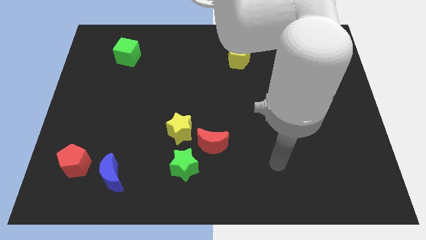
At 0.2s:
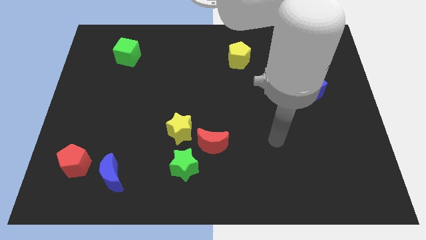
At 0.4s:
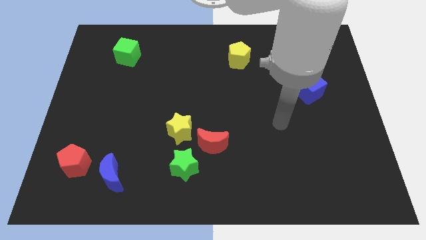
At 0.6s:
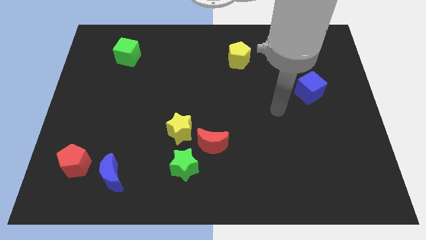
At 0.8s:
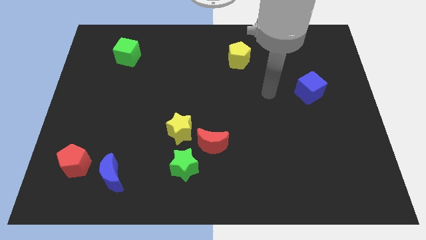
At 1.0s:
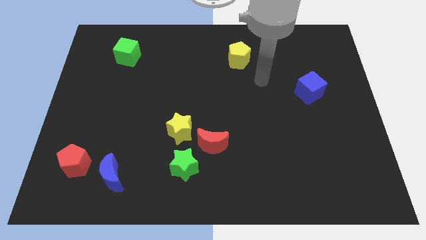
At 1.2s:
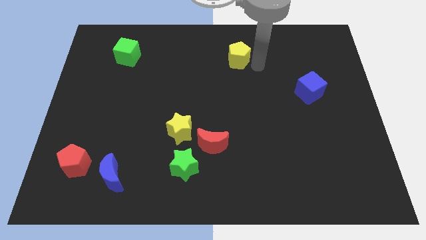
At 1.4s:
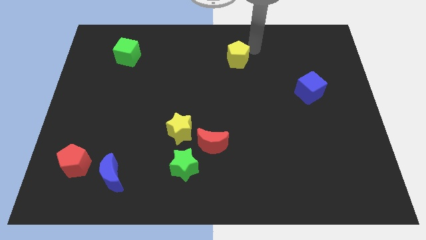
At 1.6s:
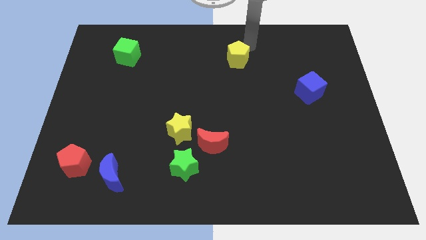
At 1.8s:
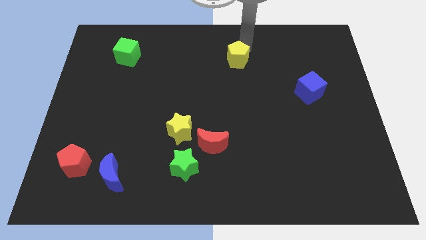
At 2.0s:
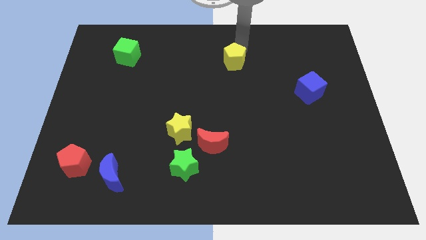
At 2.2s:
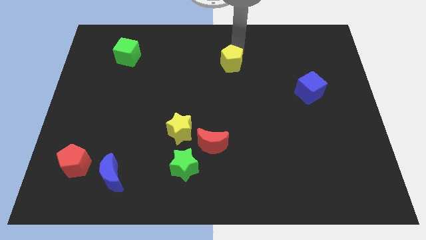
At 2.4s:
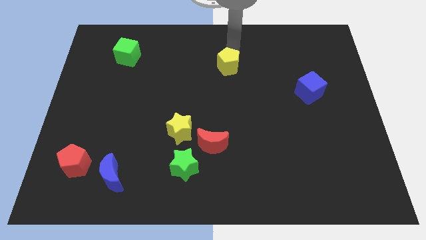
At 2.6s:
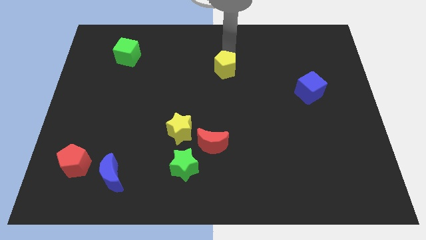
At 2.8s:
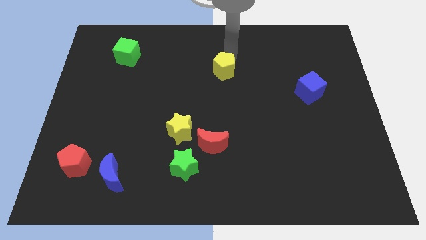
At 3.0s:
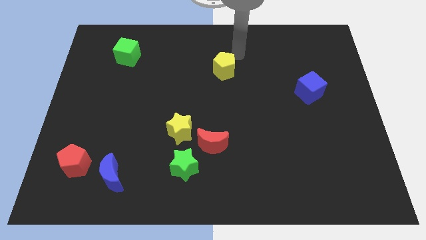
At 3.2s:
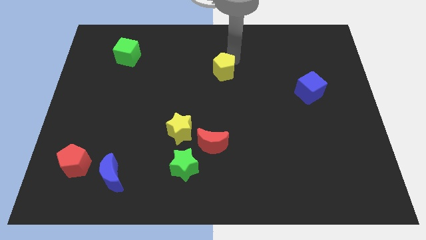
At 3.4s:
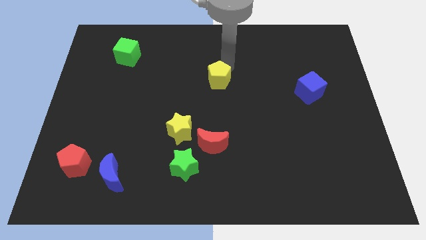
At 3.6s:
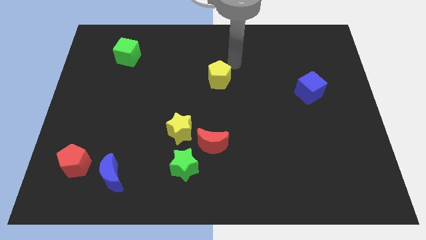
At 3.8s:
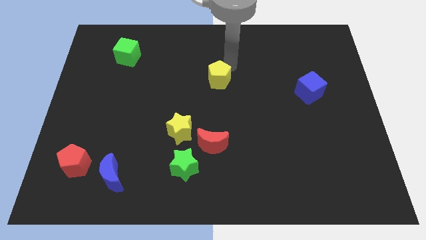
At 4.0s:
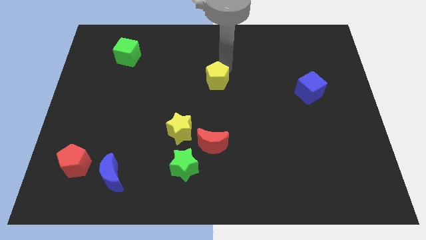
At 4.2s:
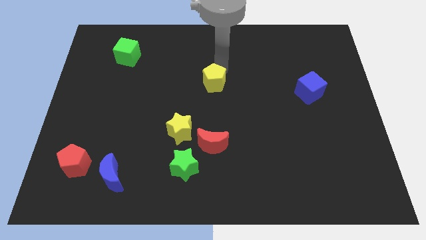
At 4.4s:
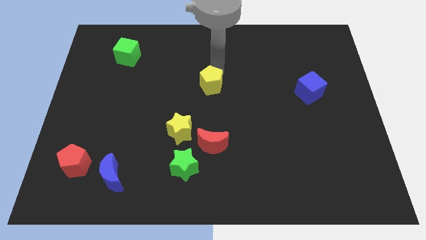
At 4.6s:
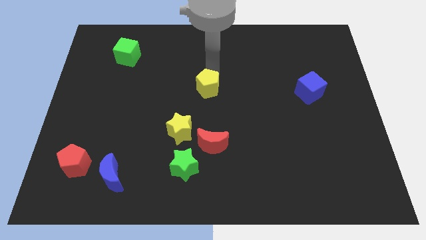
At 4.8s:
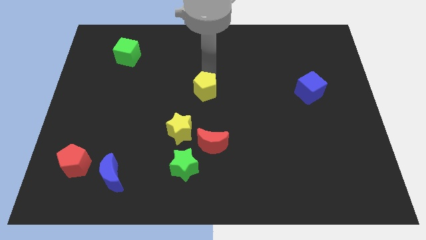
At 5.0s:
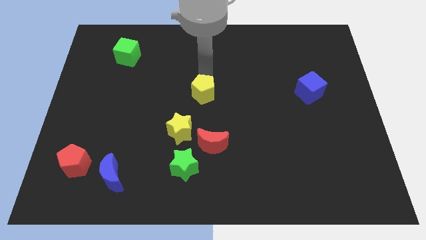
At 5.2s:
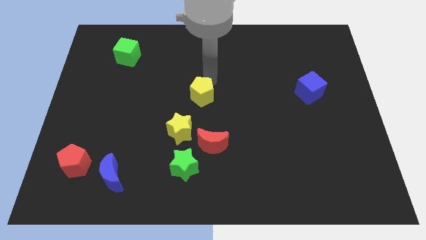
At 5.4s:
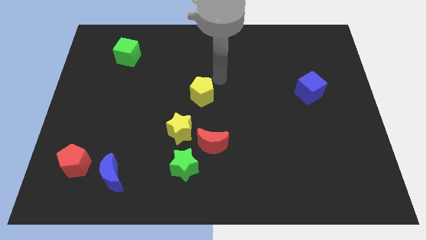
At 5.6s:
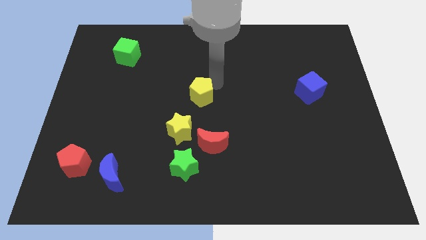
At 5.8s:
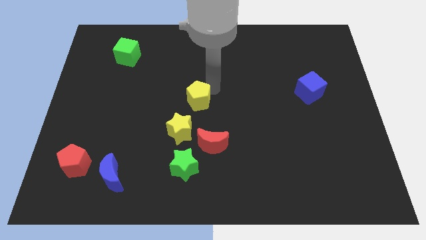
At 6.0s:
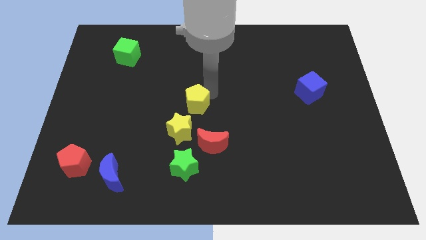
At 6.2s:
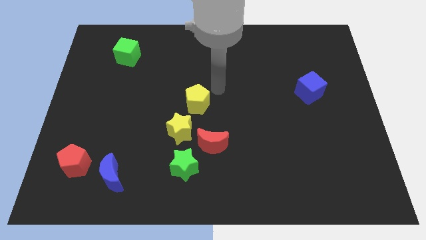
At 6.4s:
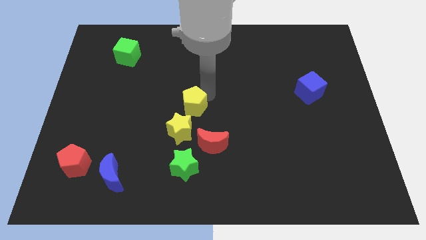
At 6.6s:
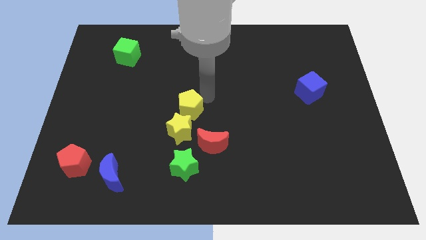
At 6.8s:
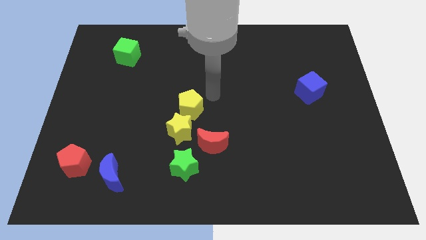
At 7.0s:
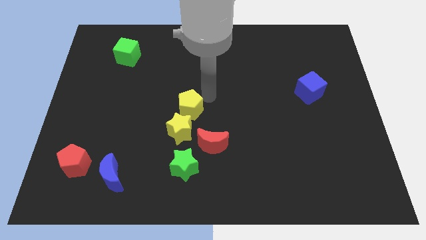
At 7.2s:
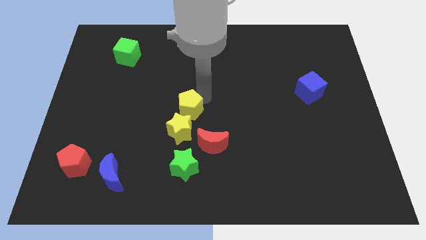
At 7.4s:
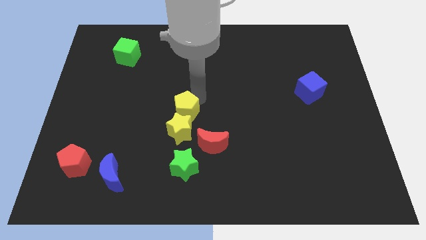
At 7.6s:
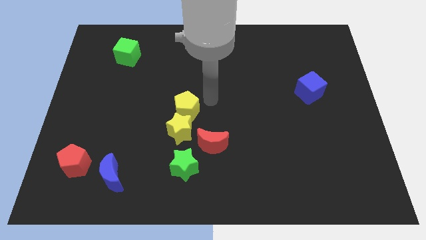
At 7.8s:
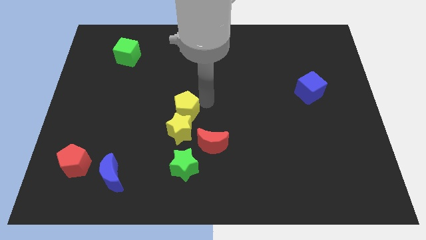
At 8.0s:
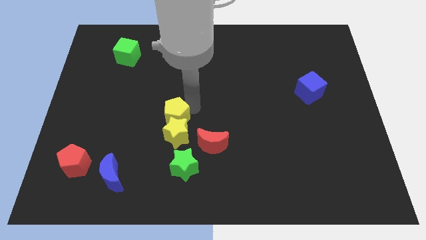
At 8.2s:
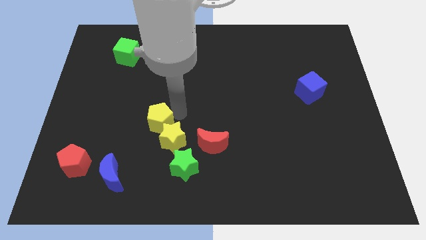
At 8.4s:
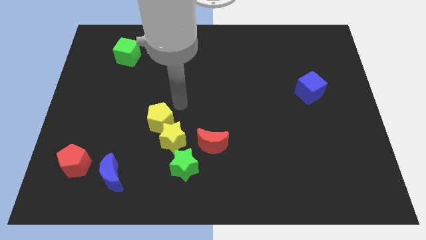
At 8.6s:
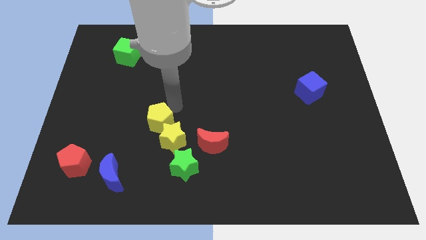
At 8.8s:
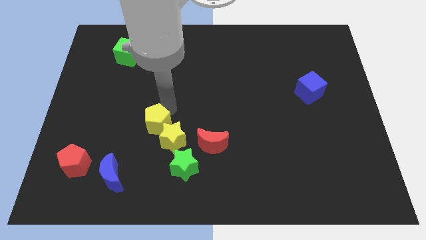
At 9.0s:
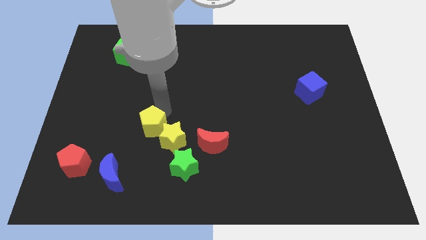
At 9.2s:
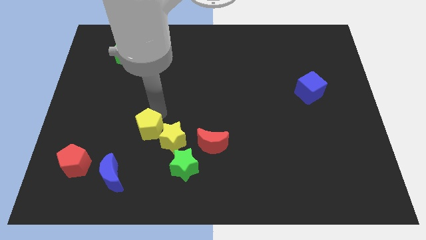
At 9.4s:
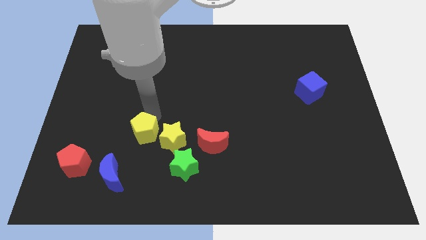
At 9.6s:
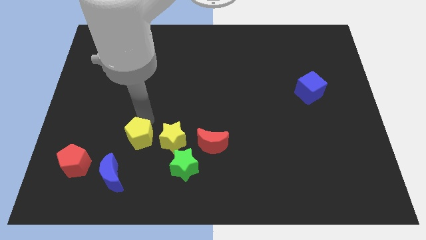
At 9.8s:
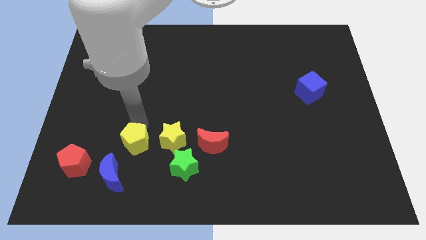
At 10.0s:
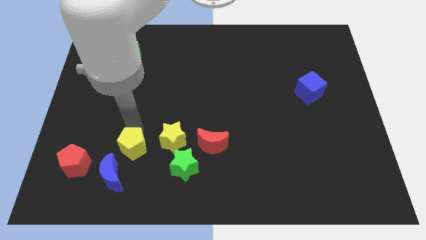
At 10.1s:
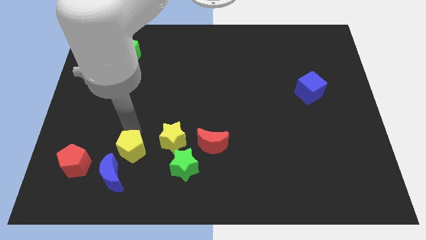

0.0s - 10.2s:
push the yellow pentagon just left of the green star

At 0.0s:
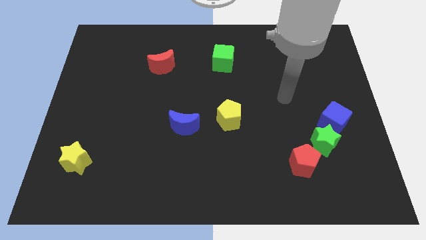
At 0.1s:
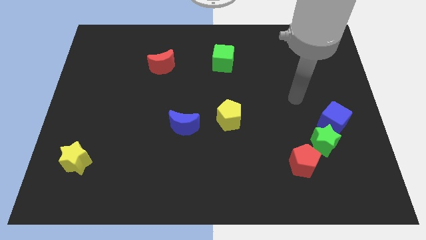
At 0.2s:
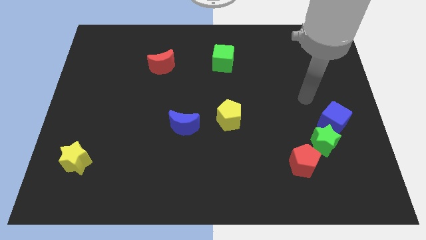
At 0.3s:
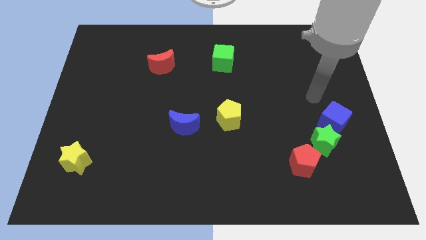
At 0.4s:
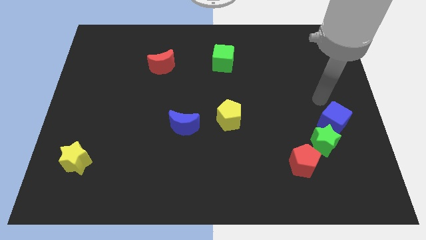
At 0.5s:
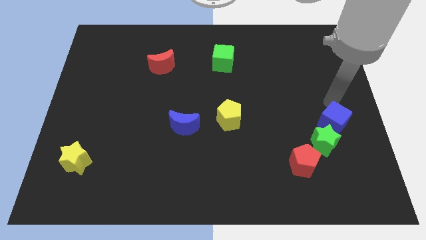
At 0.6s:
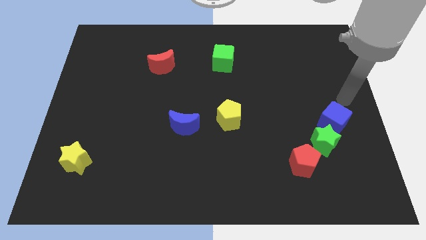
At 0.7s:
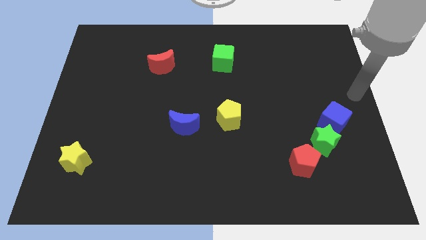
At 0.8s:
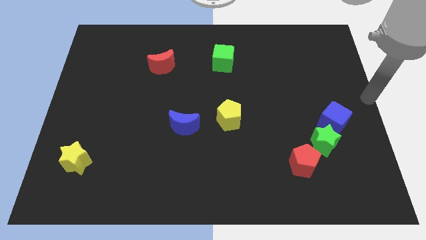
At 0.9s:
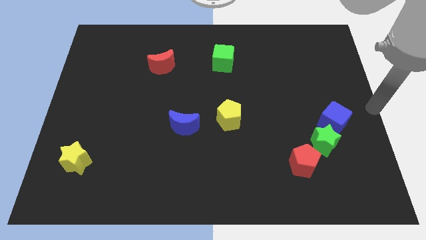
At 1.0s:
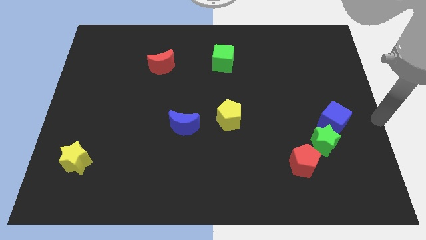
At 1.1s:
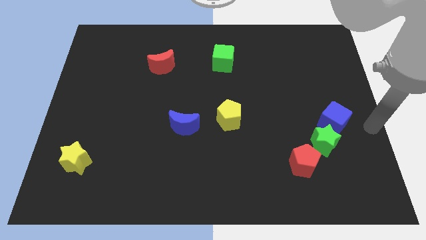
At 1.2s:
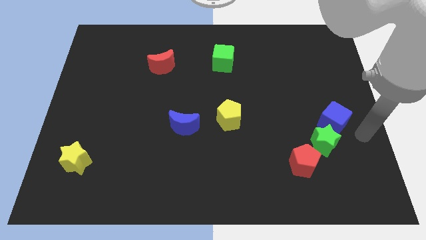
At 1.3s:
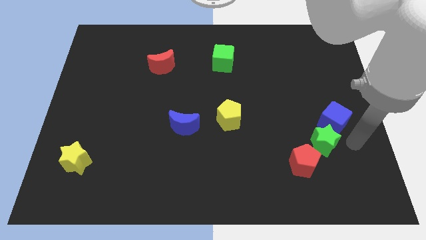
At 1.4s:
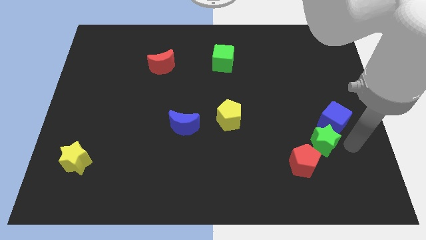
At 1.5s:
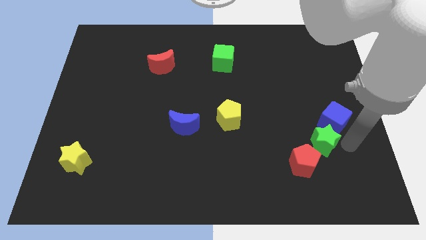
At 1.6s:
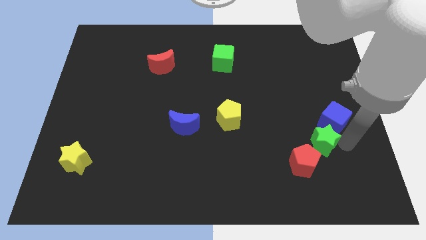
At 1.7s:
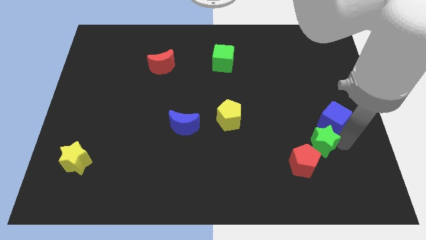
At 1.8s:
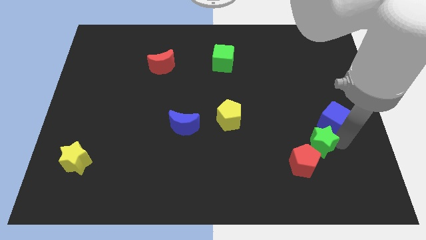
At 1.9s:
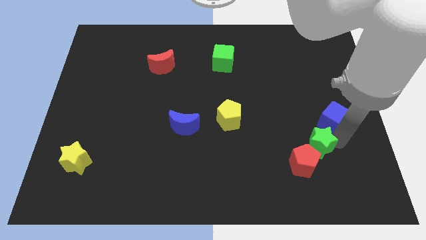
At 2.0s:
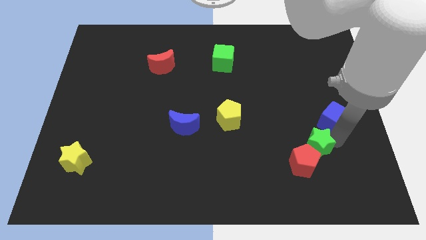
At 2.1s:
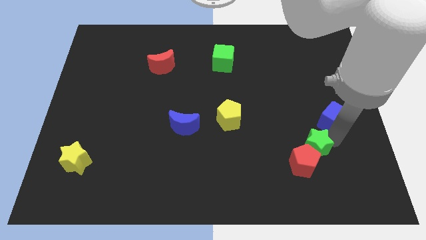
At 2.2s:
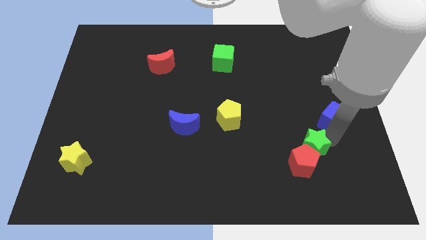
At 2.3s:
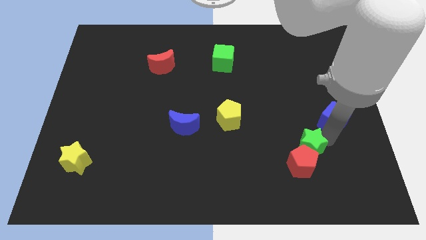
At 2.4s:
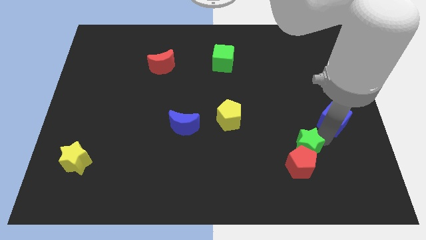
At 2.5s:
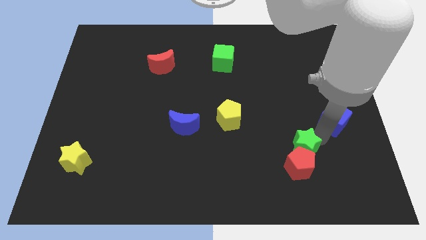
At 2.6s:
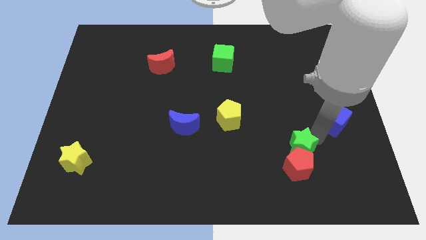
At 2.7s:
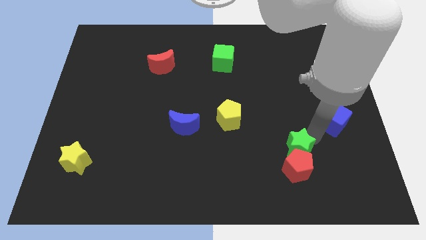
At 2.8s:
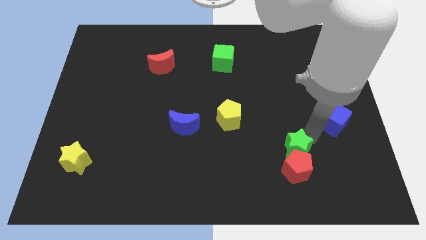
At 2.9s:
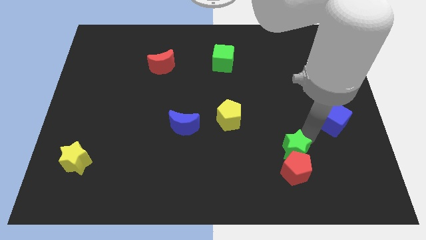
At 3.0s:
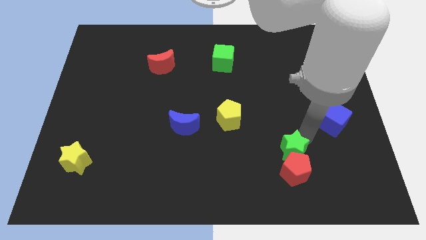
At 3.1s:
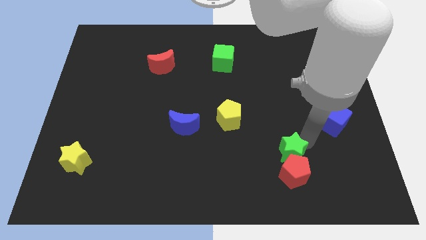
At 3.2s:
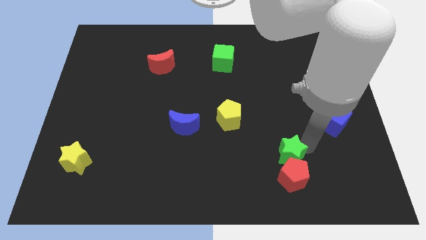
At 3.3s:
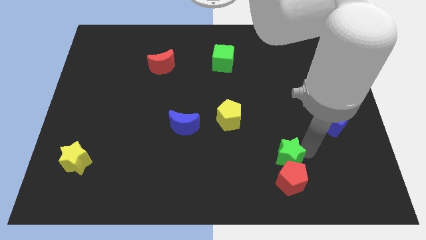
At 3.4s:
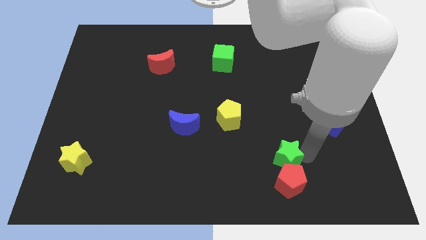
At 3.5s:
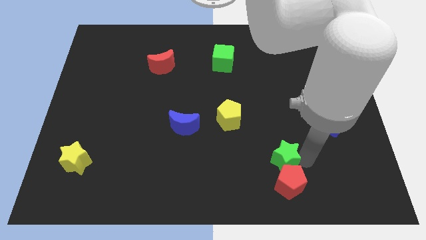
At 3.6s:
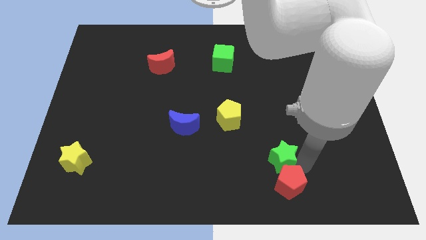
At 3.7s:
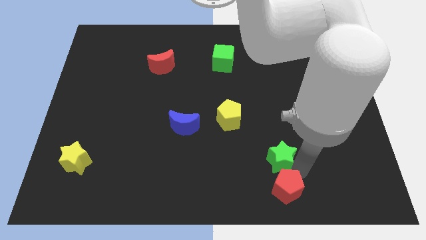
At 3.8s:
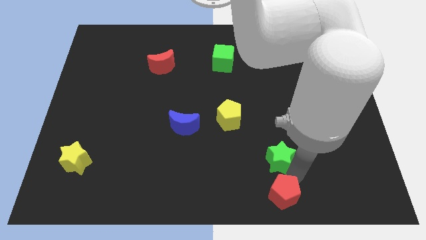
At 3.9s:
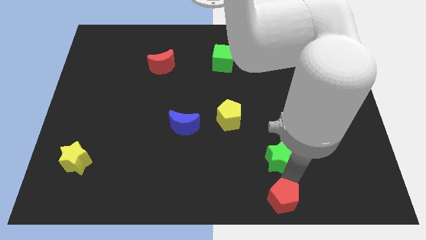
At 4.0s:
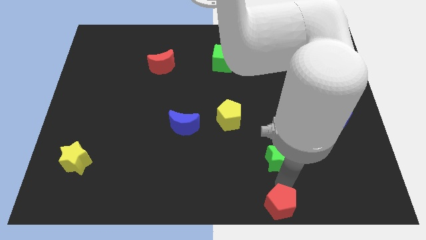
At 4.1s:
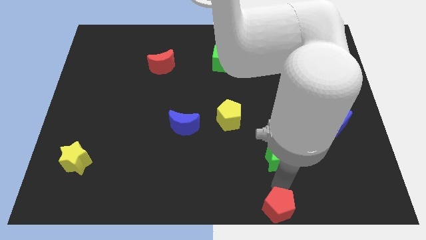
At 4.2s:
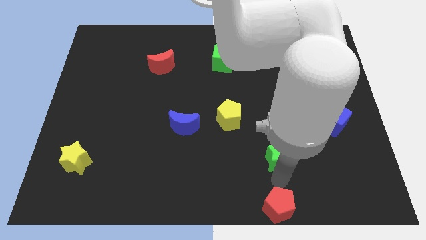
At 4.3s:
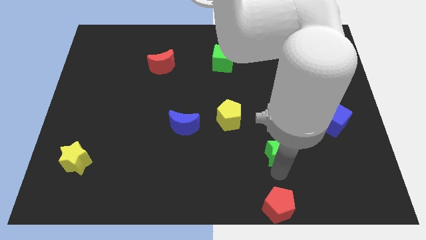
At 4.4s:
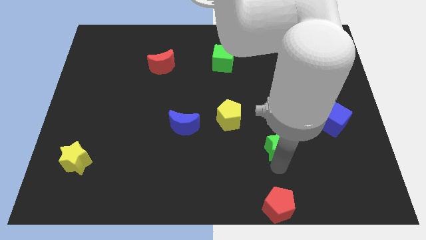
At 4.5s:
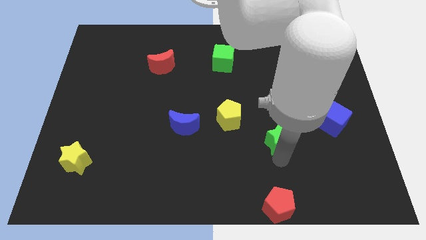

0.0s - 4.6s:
slide the green star to the bottom right of the yellow pentagon
